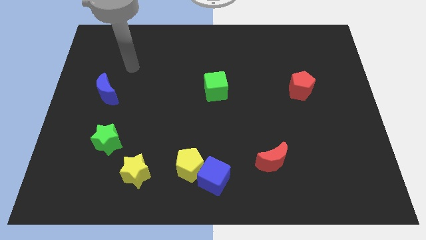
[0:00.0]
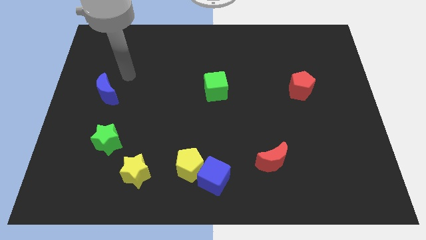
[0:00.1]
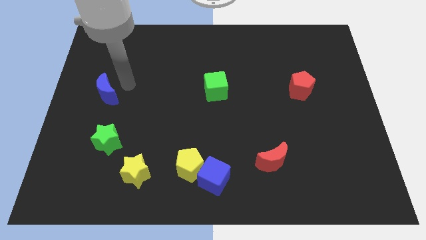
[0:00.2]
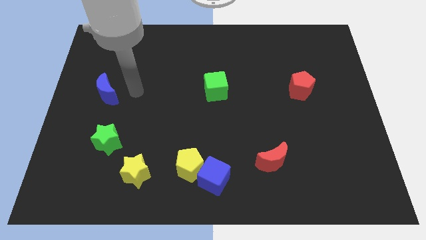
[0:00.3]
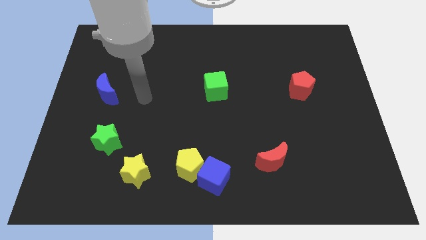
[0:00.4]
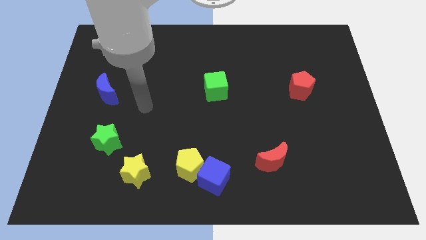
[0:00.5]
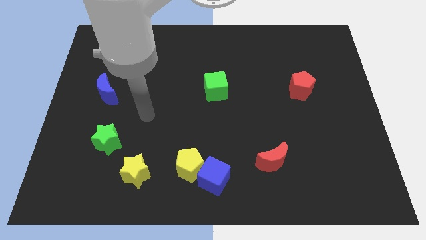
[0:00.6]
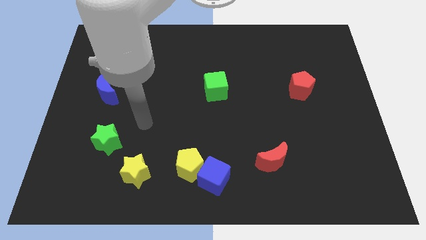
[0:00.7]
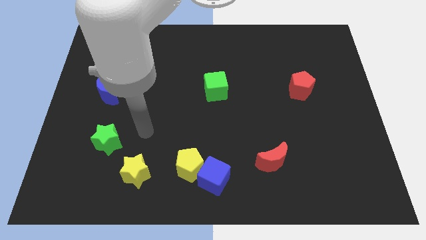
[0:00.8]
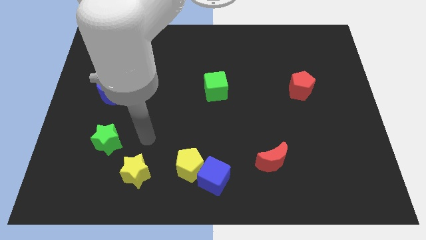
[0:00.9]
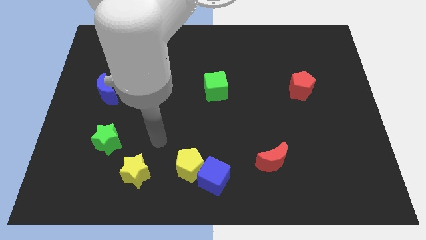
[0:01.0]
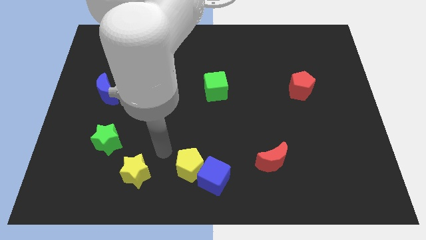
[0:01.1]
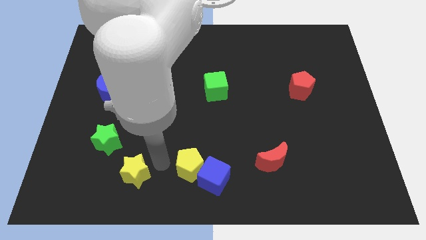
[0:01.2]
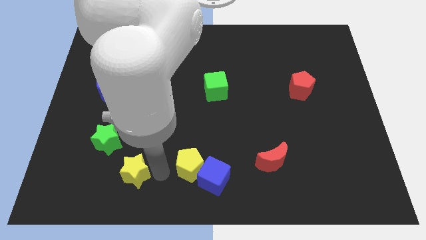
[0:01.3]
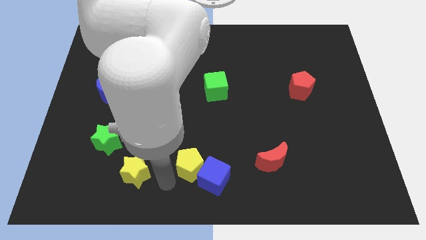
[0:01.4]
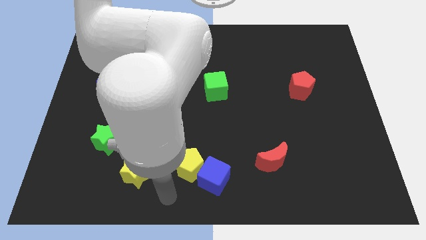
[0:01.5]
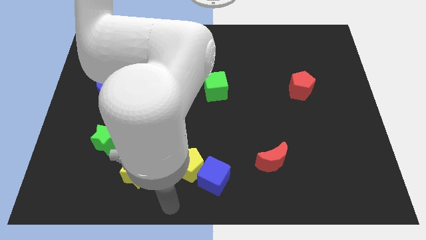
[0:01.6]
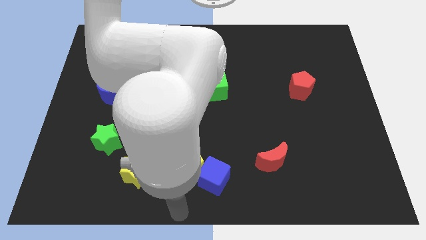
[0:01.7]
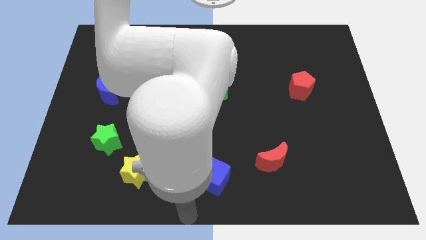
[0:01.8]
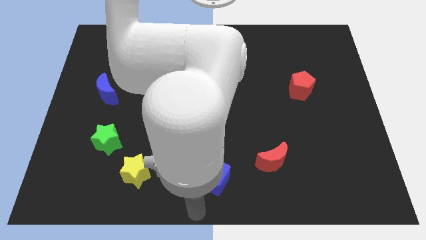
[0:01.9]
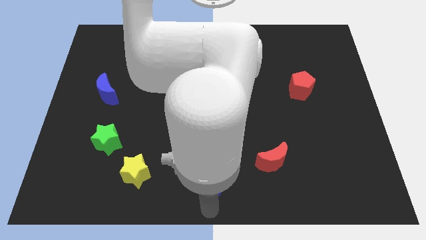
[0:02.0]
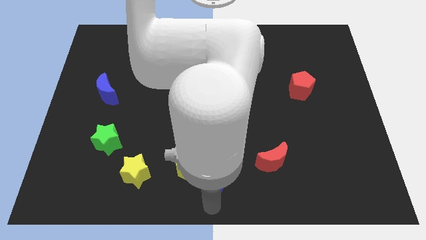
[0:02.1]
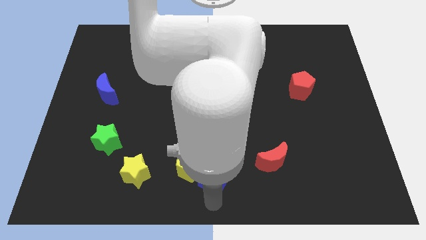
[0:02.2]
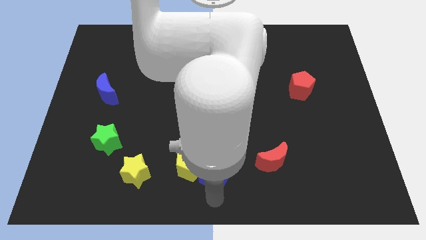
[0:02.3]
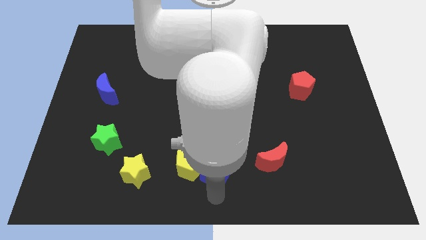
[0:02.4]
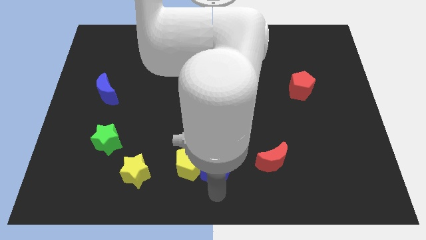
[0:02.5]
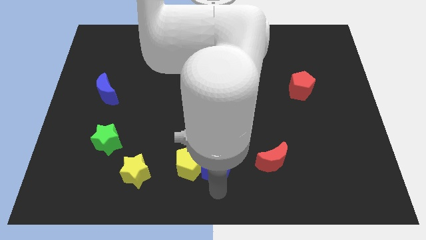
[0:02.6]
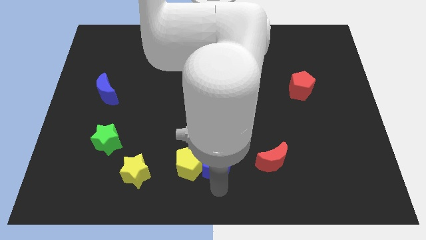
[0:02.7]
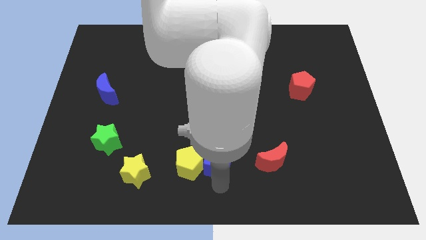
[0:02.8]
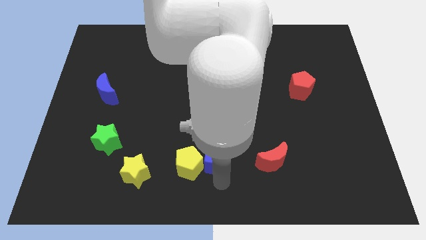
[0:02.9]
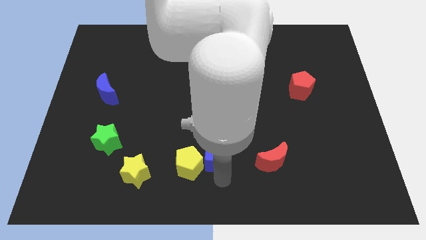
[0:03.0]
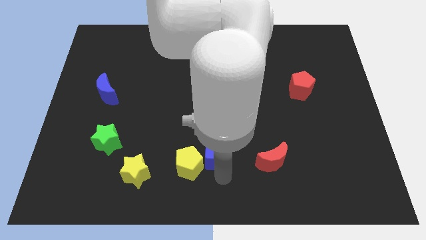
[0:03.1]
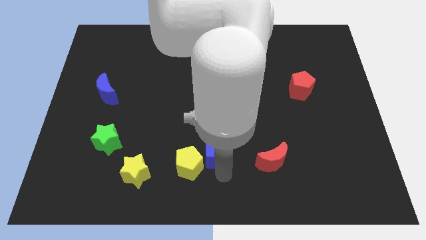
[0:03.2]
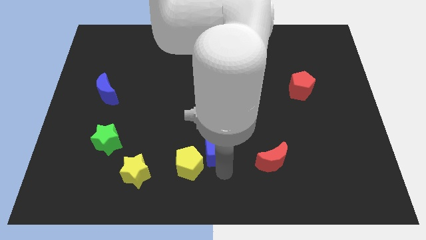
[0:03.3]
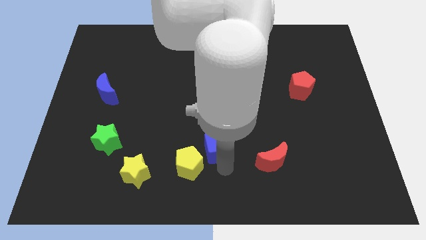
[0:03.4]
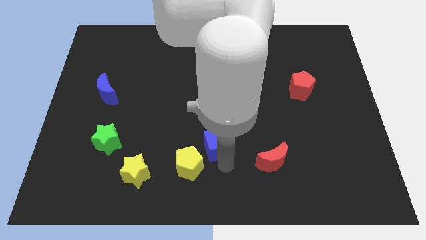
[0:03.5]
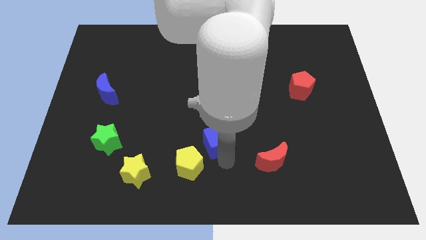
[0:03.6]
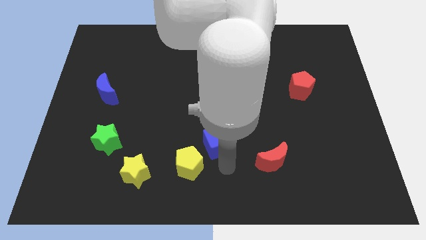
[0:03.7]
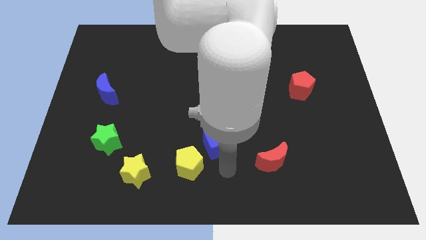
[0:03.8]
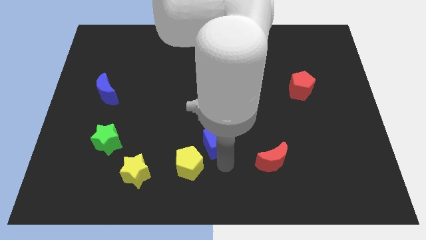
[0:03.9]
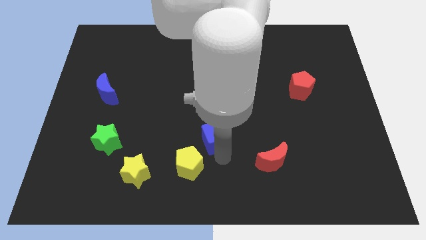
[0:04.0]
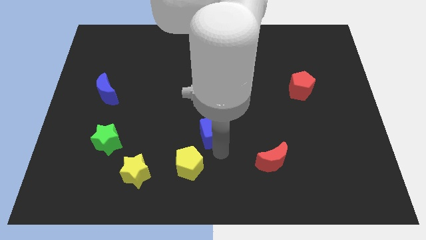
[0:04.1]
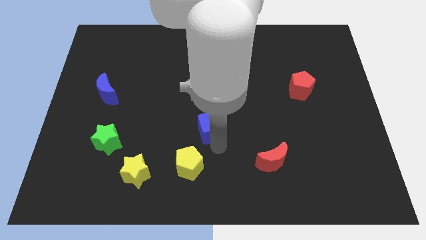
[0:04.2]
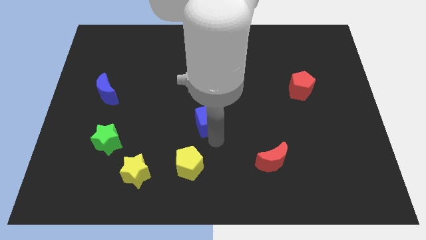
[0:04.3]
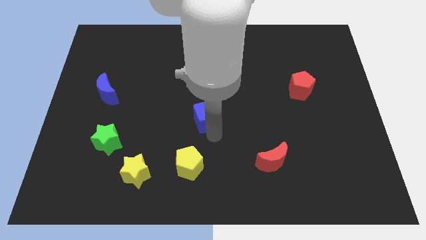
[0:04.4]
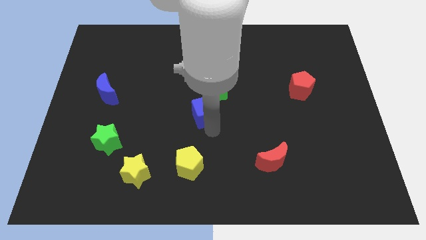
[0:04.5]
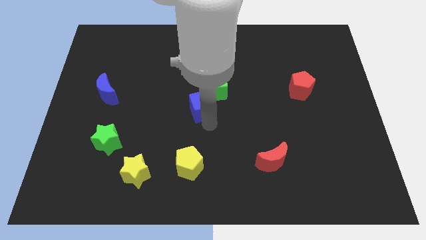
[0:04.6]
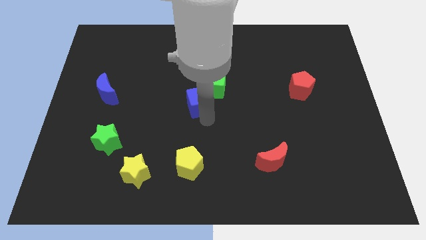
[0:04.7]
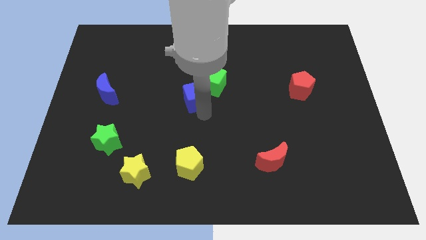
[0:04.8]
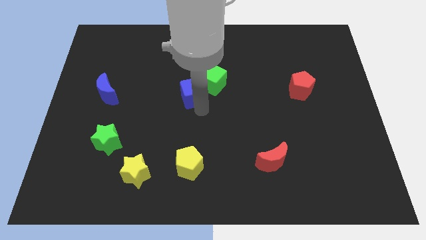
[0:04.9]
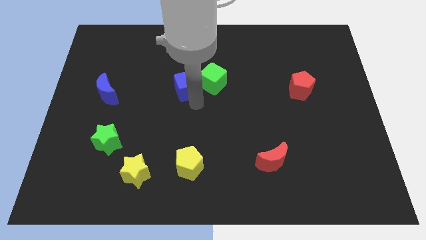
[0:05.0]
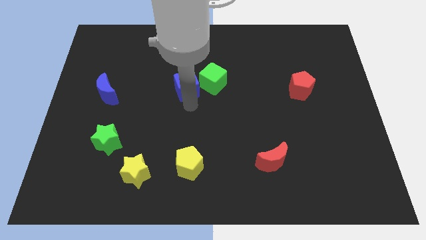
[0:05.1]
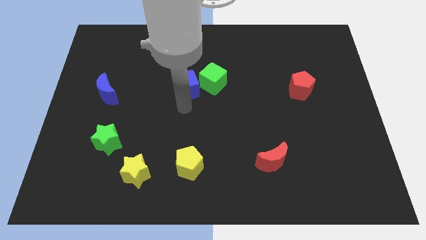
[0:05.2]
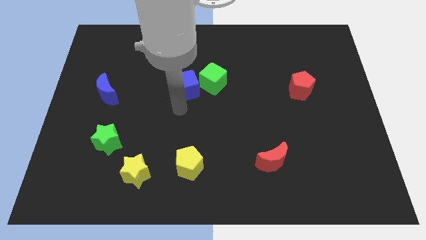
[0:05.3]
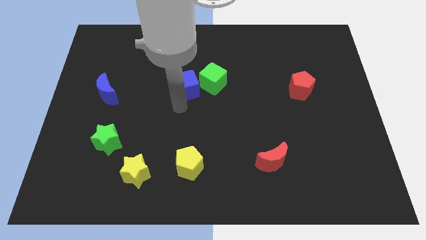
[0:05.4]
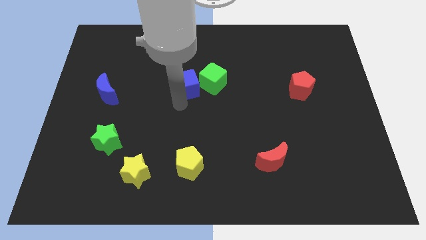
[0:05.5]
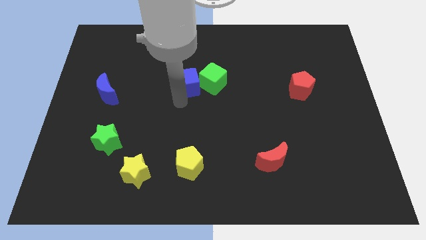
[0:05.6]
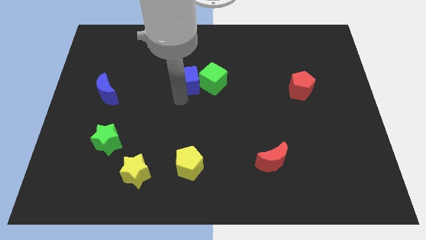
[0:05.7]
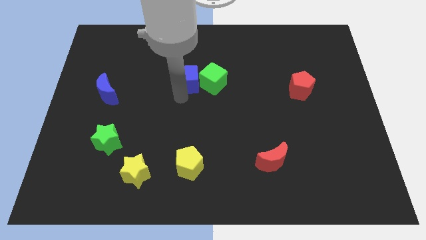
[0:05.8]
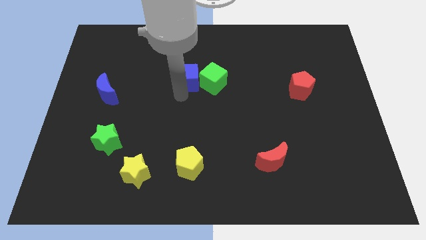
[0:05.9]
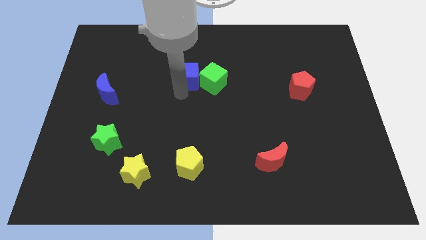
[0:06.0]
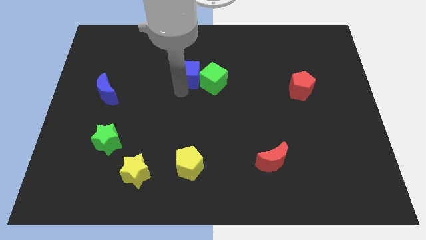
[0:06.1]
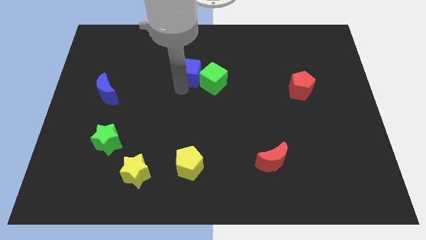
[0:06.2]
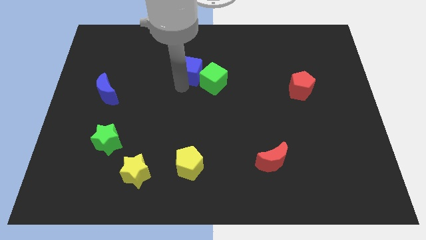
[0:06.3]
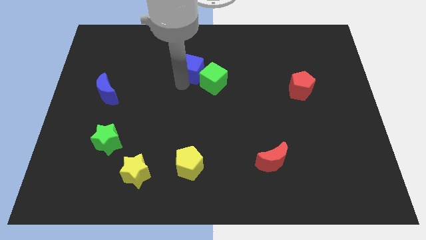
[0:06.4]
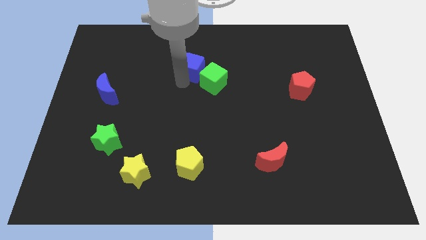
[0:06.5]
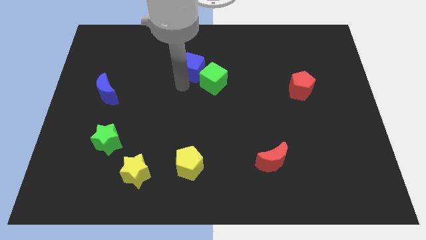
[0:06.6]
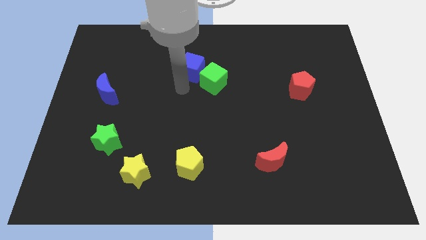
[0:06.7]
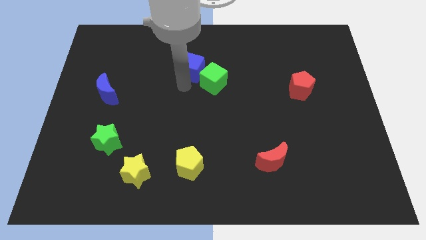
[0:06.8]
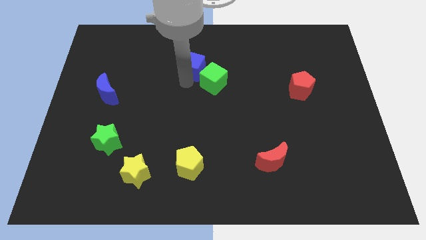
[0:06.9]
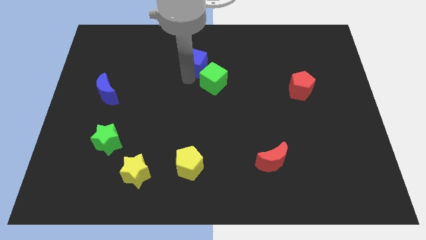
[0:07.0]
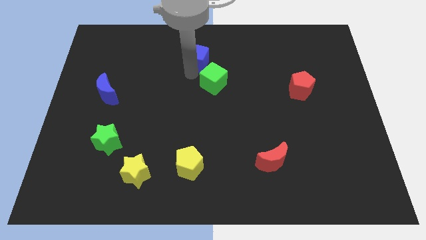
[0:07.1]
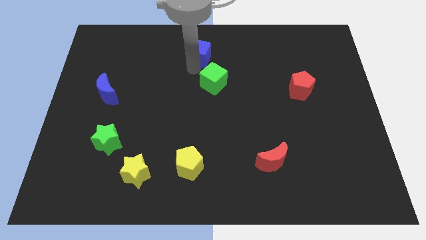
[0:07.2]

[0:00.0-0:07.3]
slide the blue cube to the top
